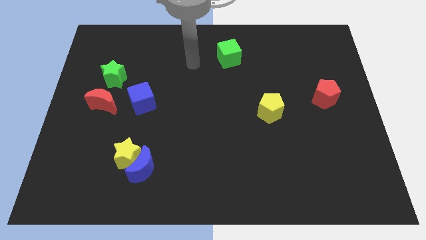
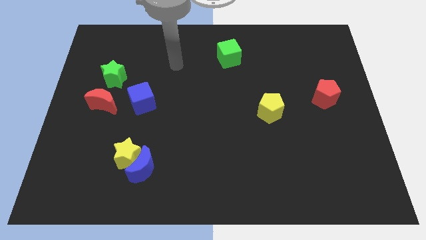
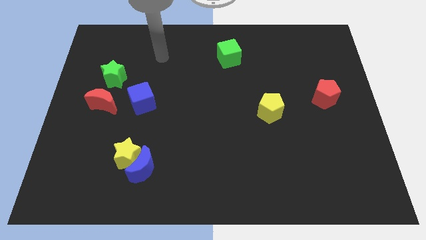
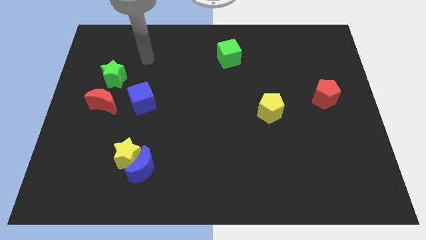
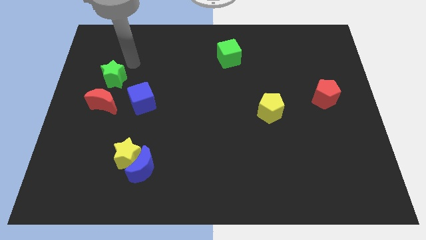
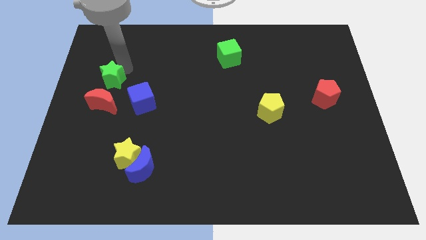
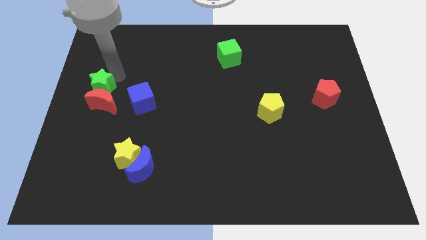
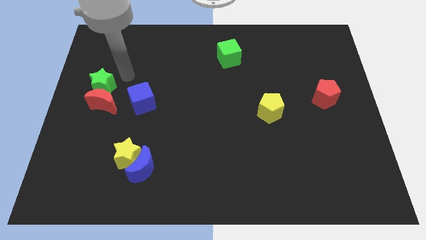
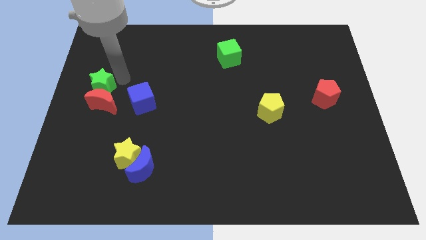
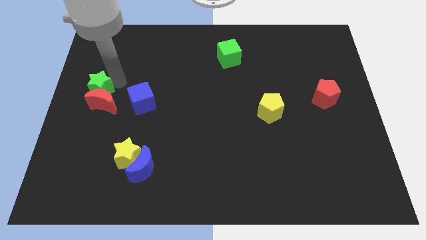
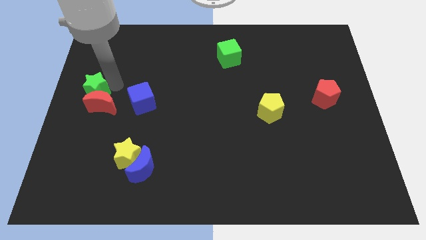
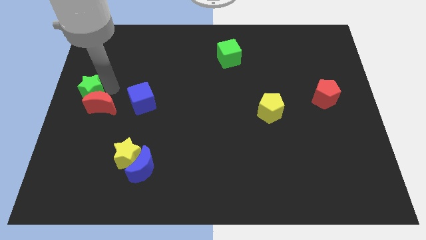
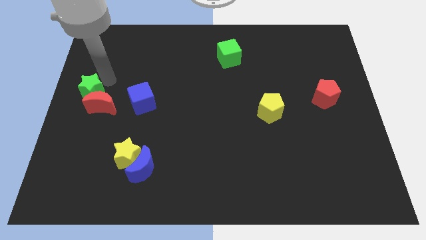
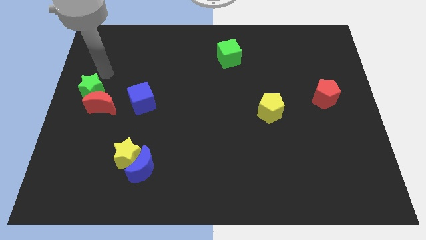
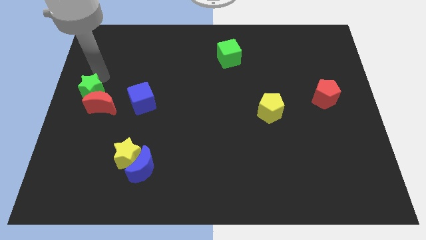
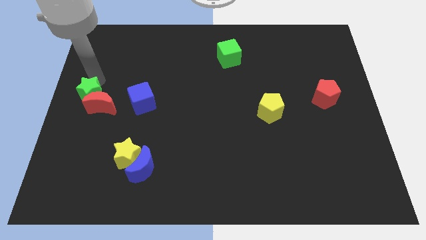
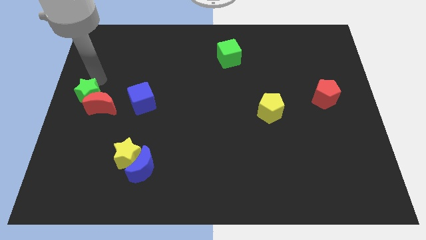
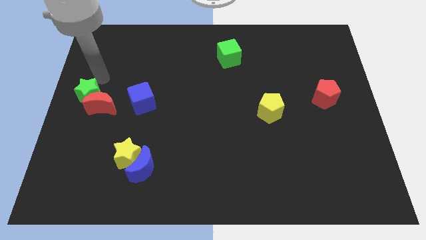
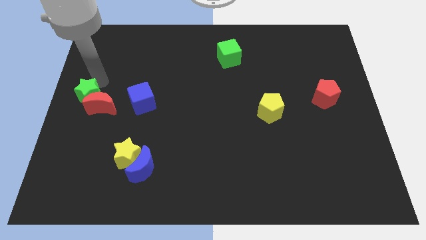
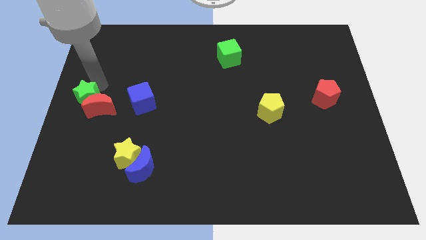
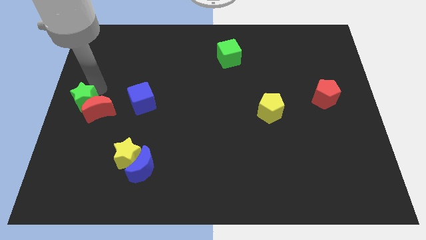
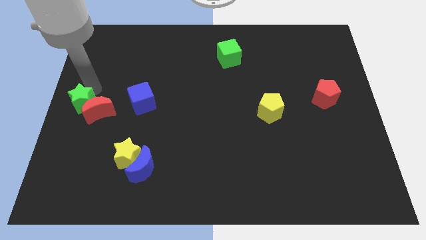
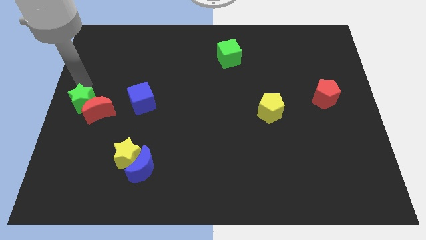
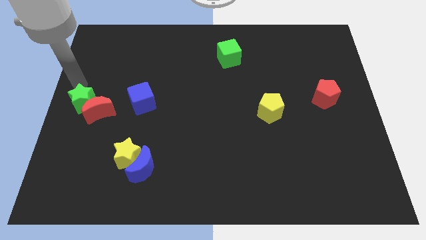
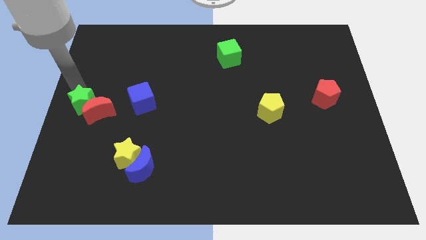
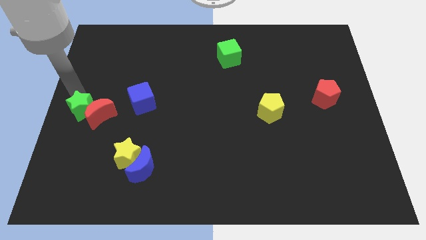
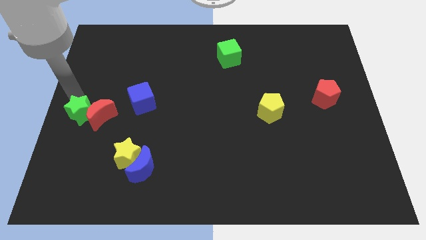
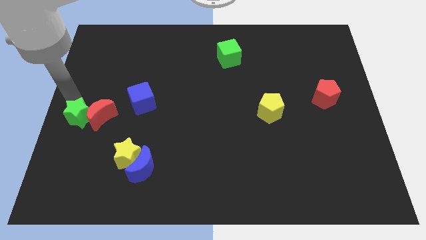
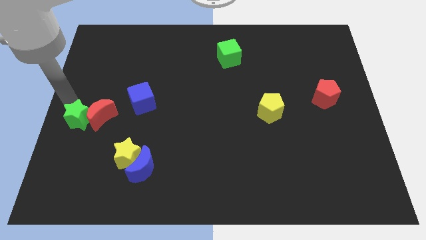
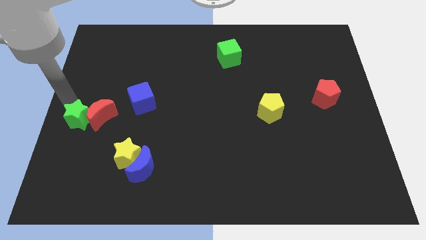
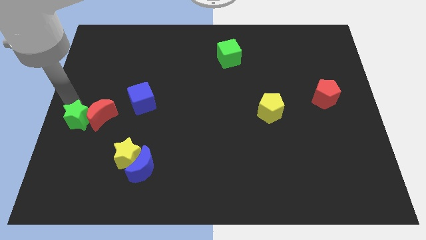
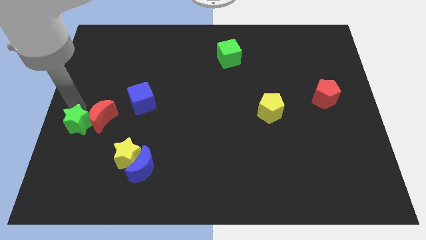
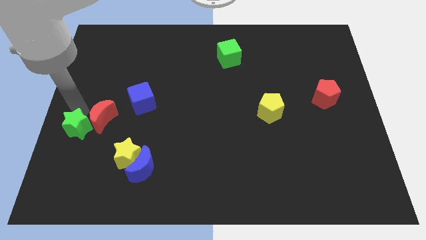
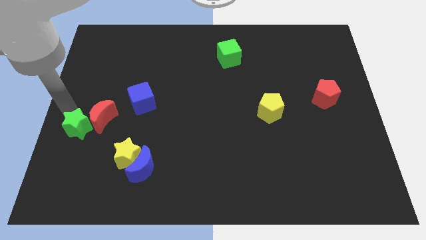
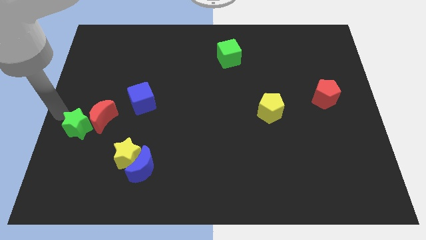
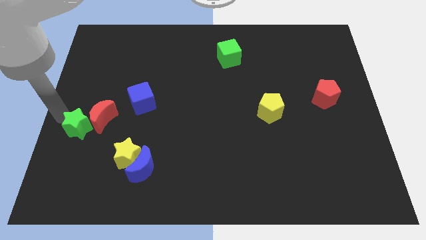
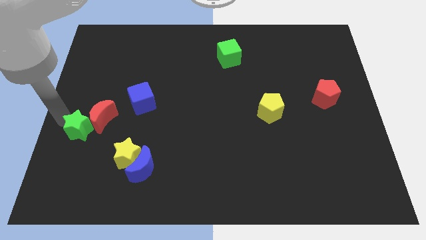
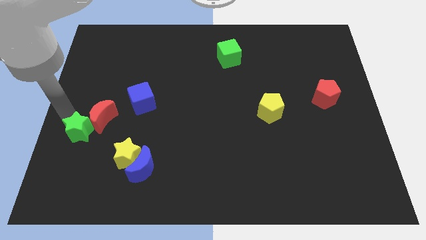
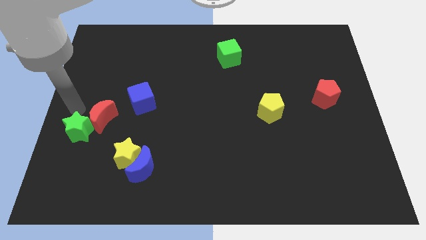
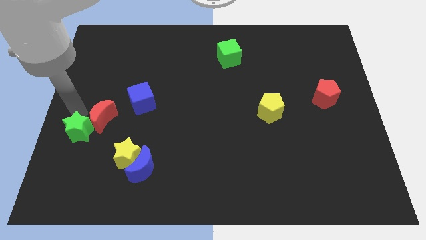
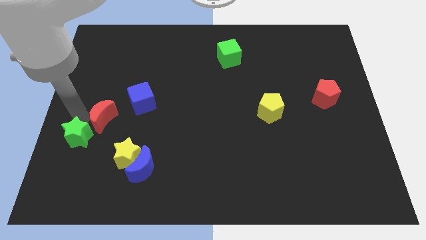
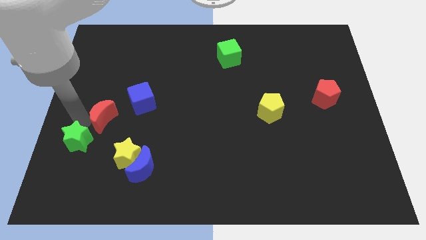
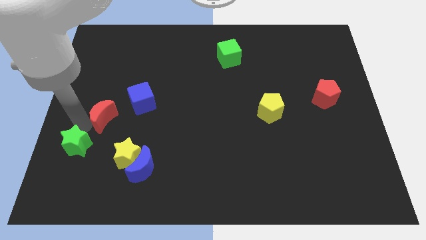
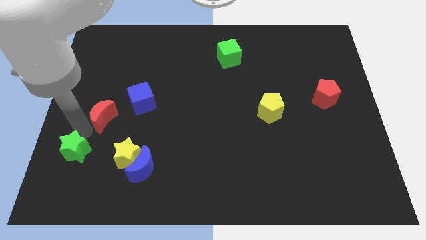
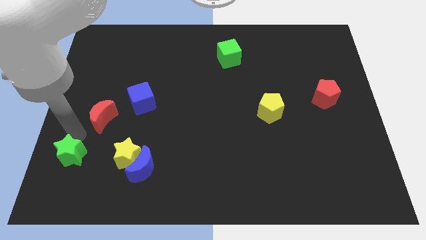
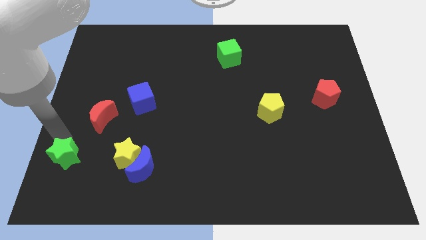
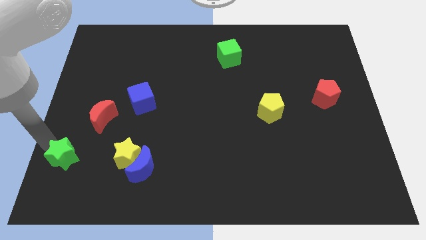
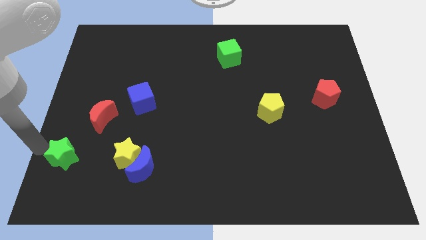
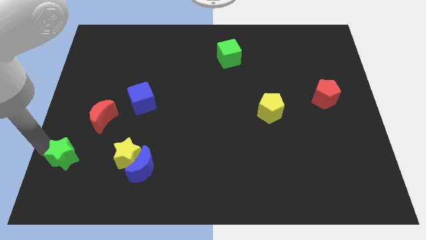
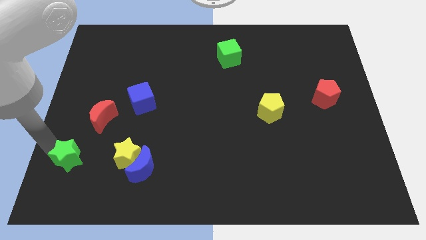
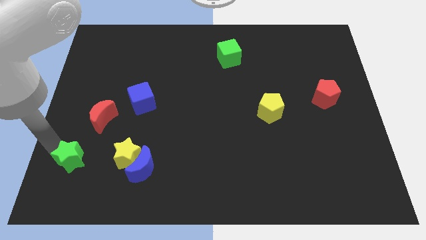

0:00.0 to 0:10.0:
move the green star left of the blue moon

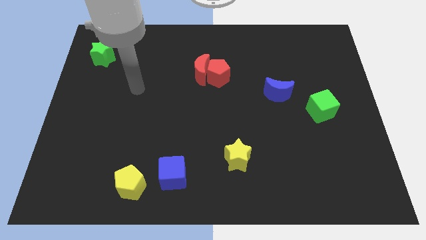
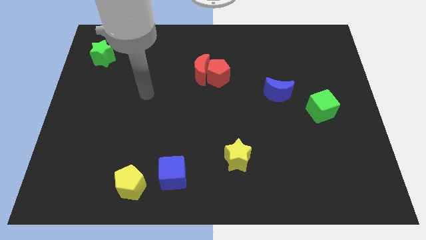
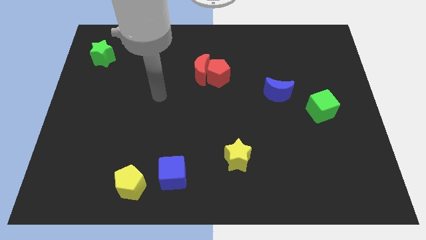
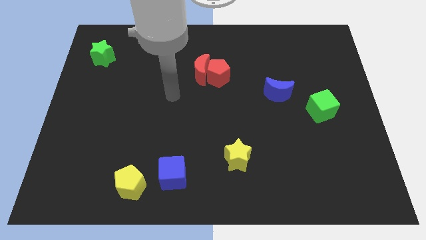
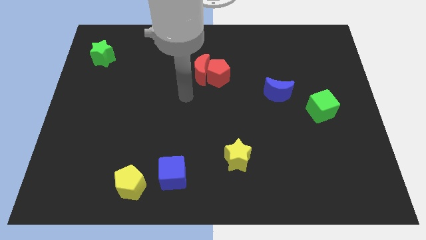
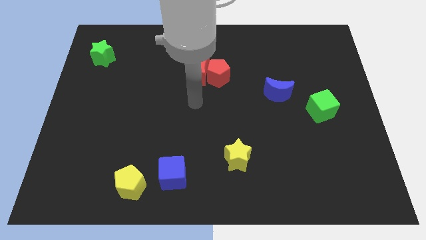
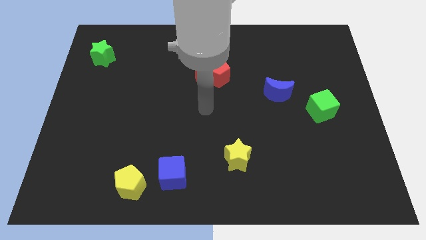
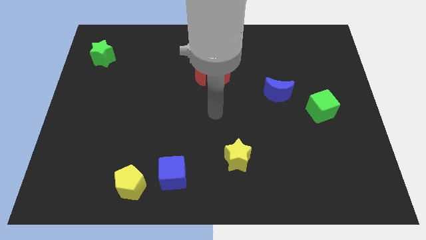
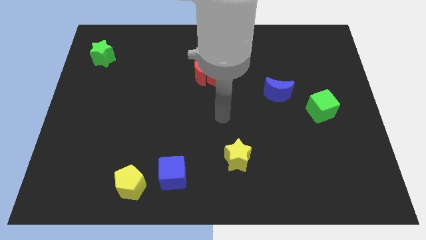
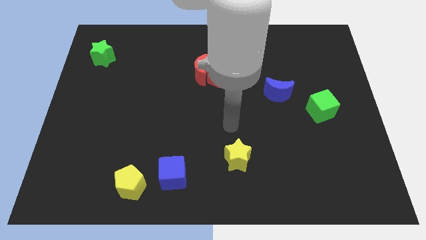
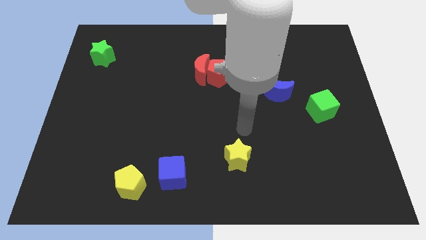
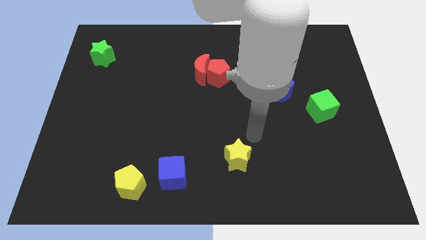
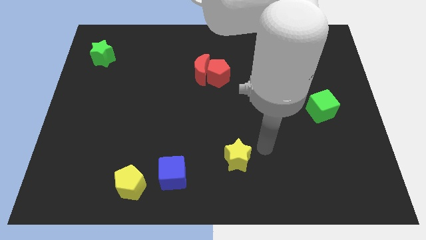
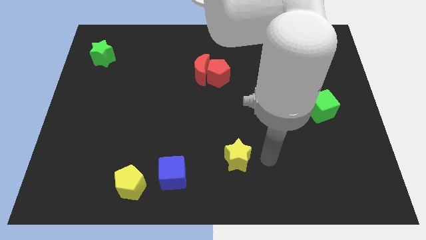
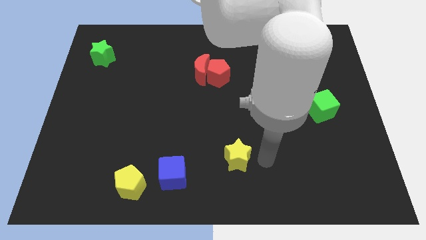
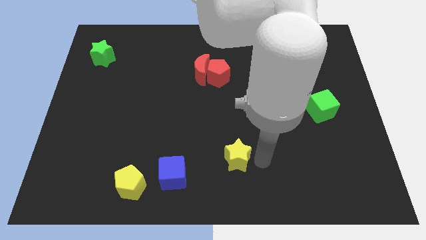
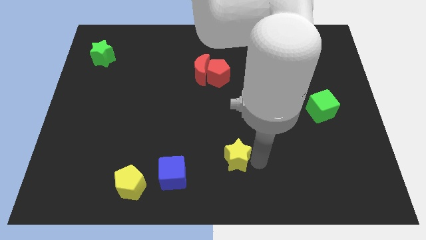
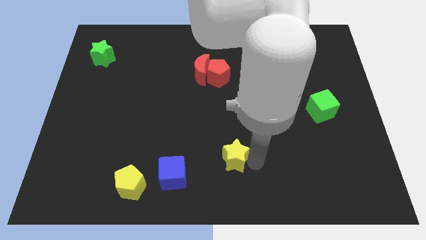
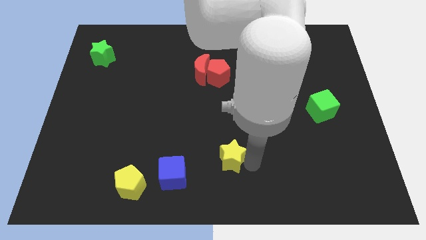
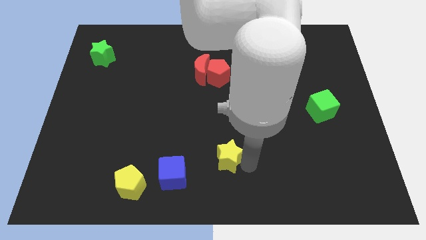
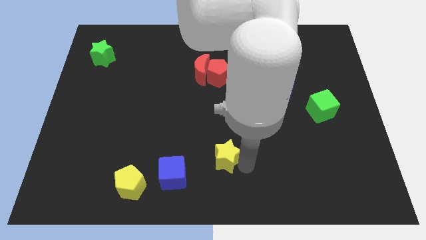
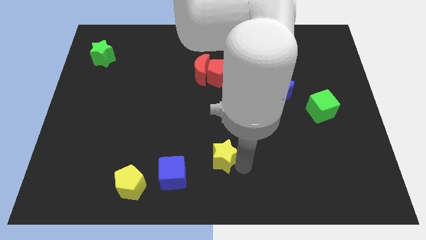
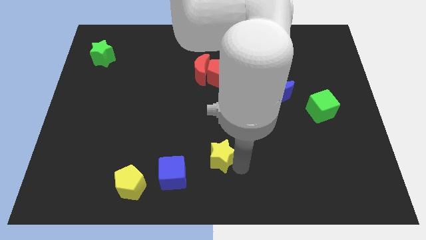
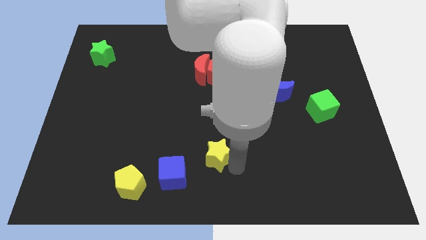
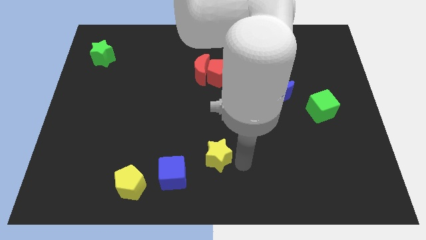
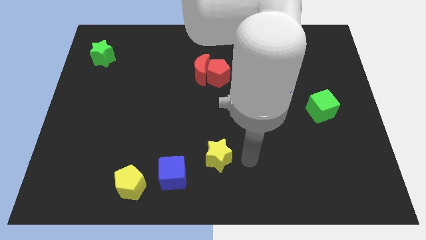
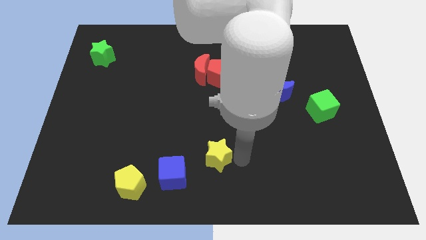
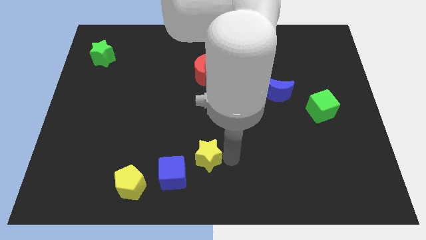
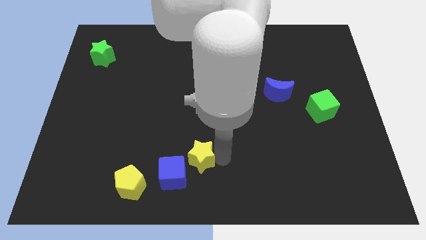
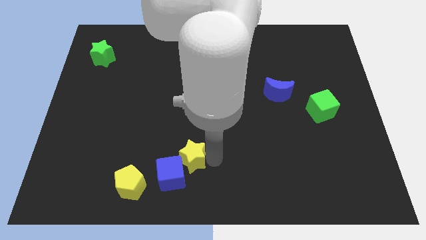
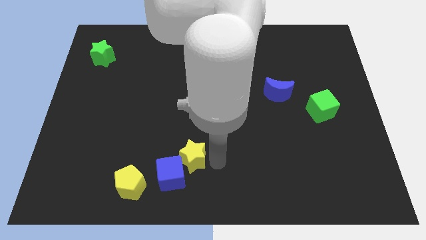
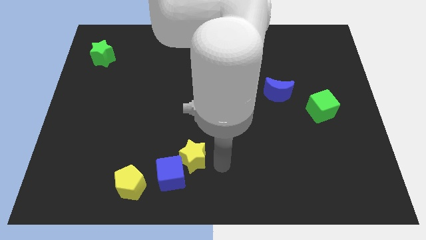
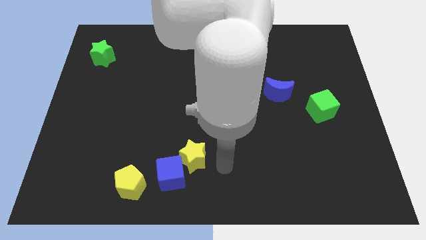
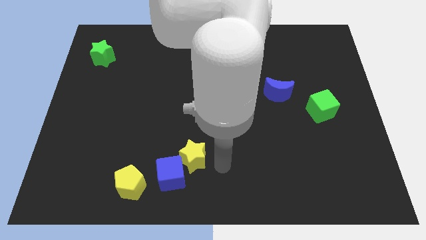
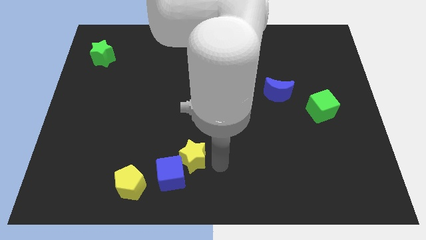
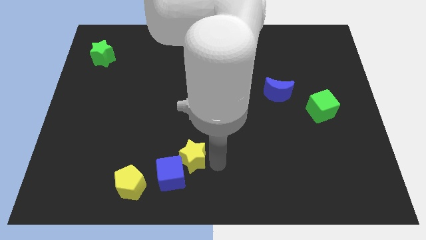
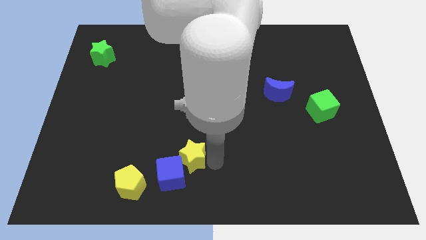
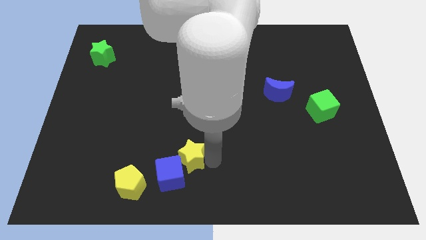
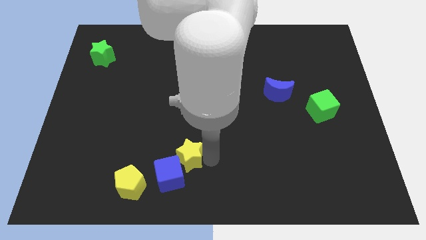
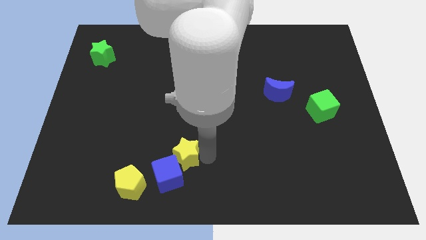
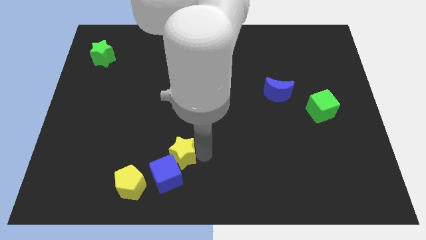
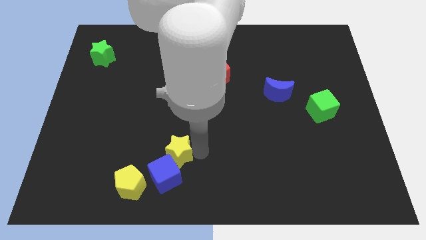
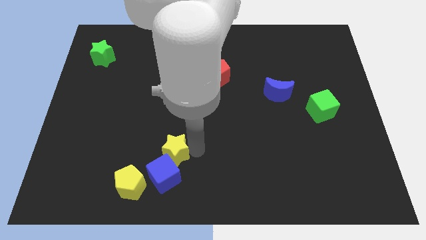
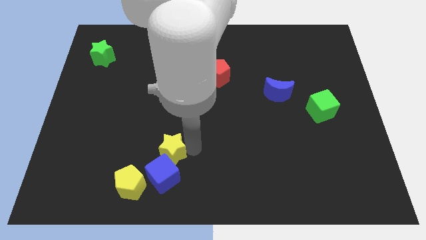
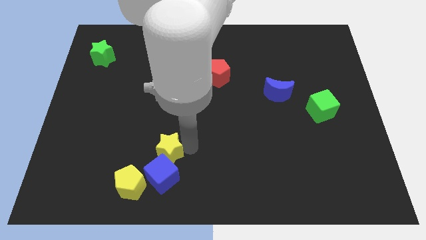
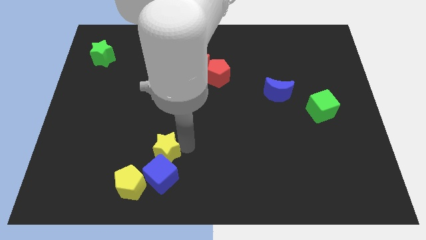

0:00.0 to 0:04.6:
slide the yellow star to the top left of the blue cube
